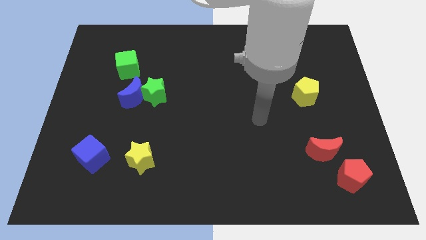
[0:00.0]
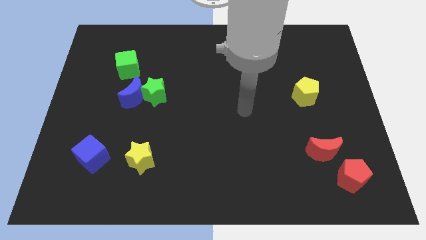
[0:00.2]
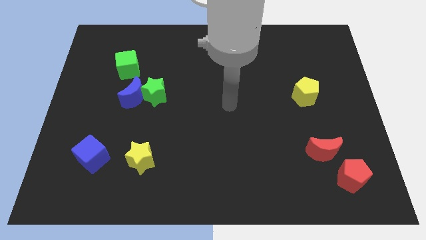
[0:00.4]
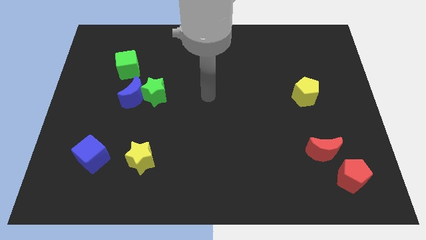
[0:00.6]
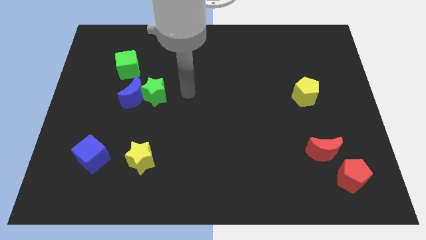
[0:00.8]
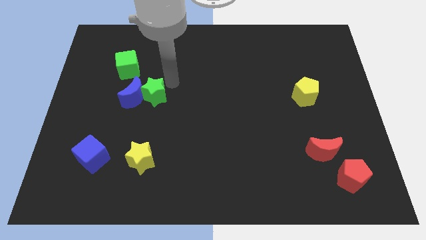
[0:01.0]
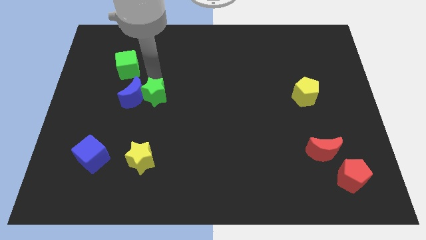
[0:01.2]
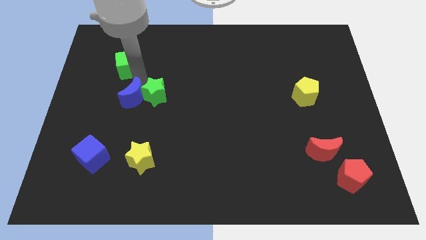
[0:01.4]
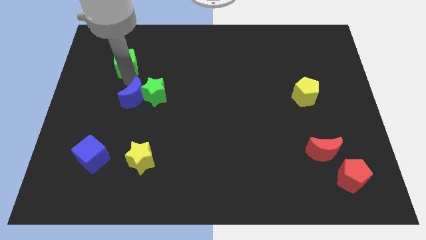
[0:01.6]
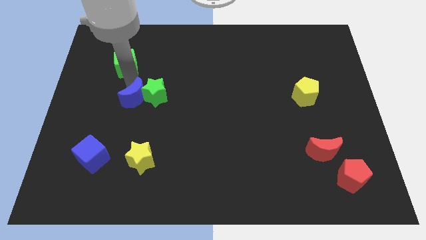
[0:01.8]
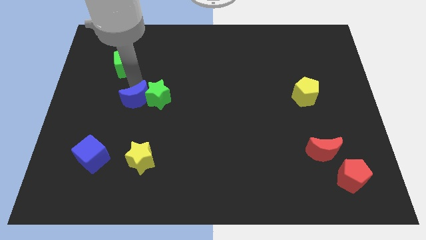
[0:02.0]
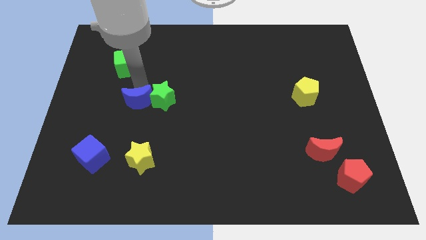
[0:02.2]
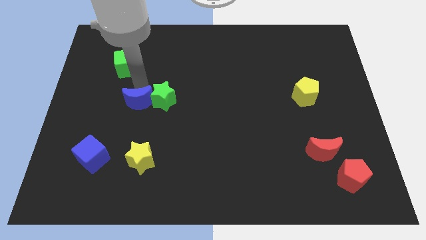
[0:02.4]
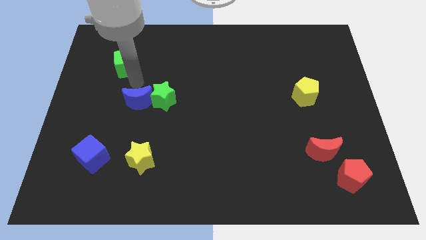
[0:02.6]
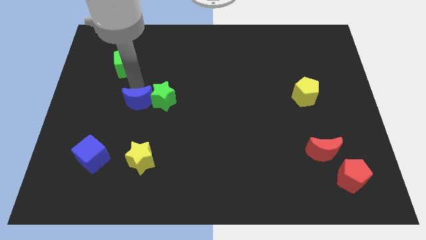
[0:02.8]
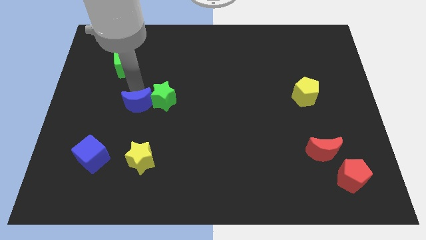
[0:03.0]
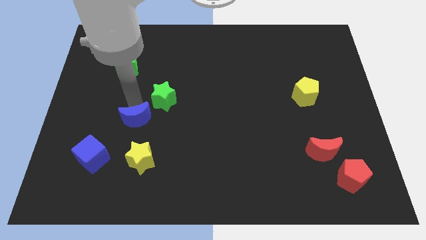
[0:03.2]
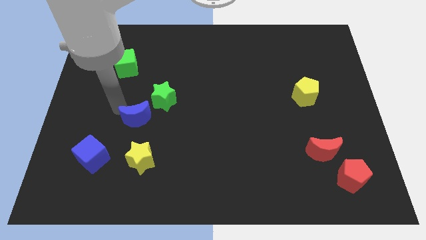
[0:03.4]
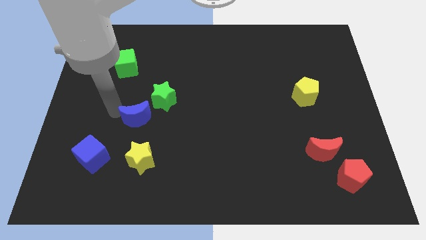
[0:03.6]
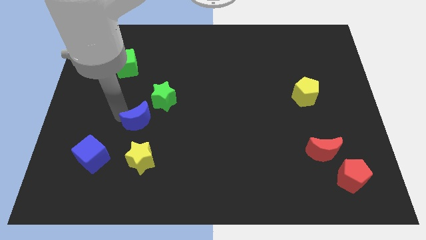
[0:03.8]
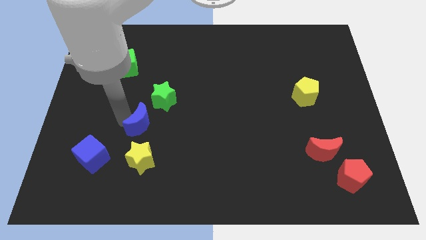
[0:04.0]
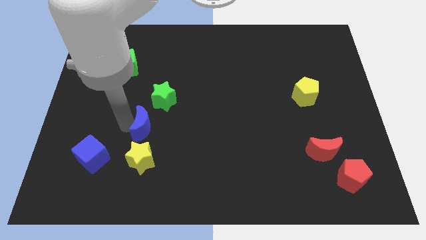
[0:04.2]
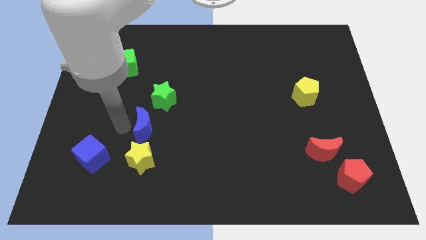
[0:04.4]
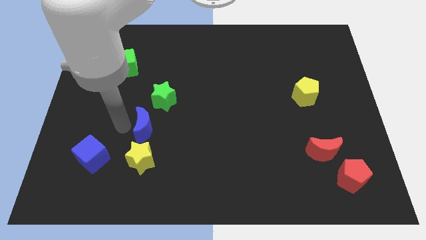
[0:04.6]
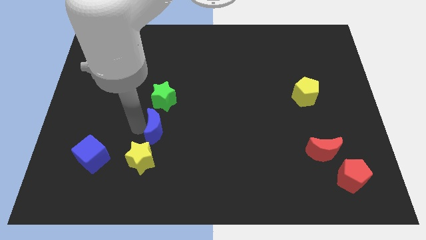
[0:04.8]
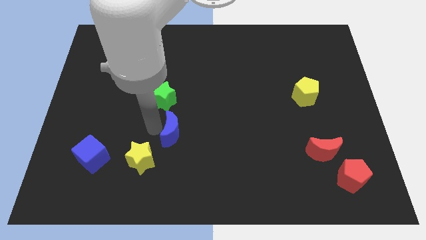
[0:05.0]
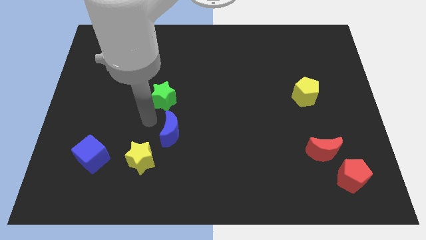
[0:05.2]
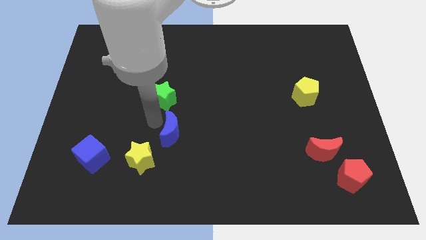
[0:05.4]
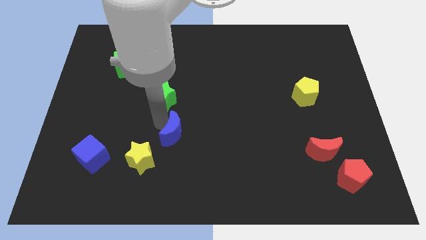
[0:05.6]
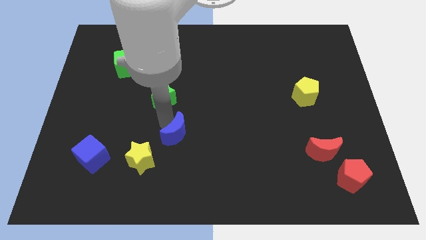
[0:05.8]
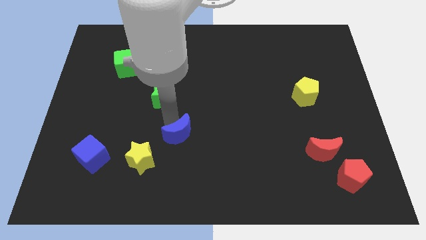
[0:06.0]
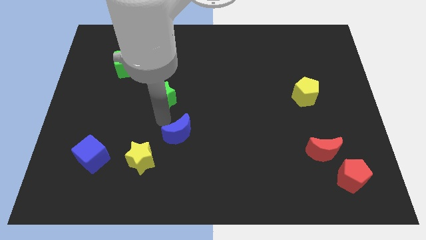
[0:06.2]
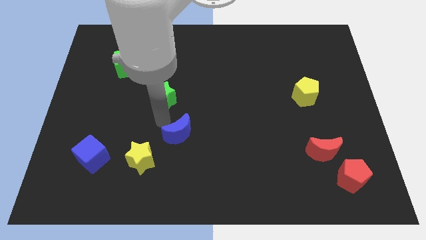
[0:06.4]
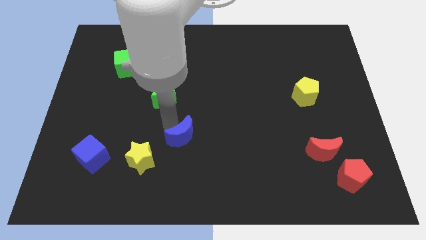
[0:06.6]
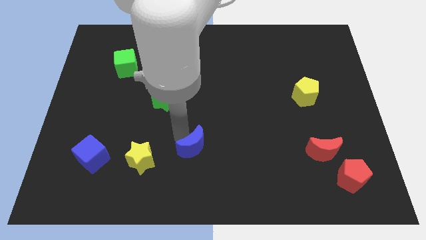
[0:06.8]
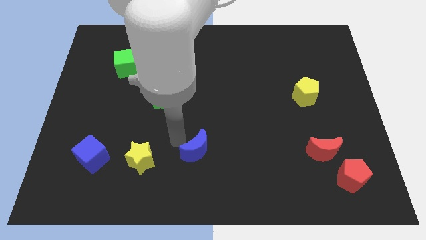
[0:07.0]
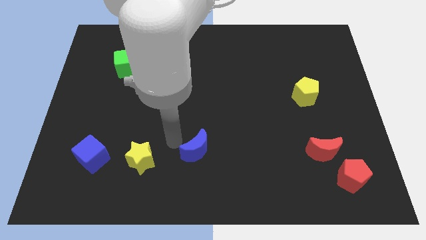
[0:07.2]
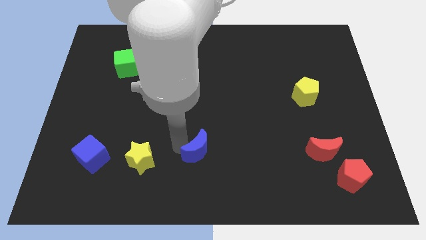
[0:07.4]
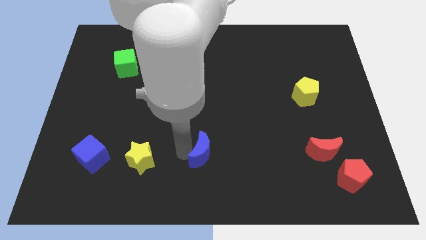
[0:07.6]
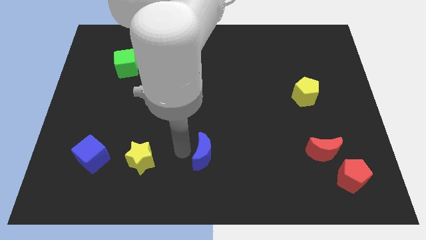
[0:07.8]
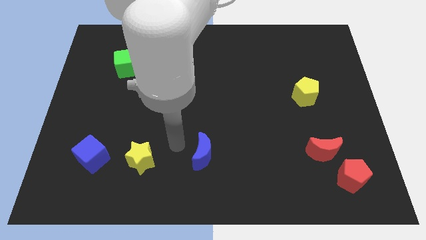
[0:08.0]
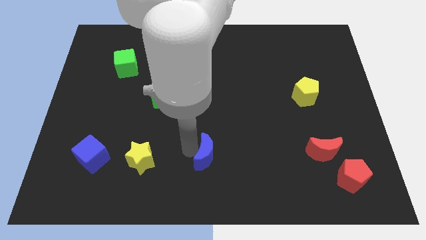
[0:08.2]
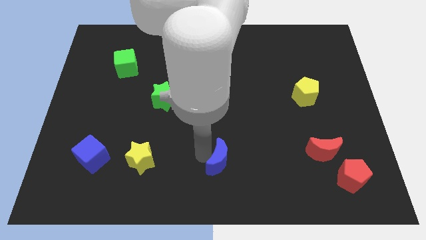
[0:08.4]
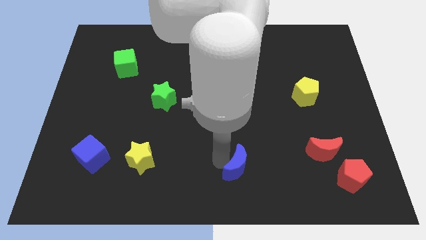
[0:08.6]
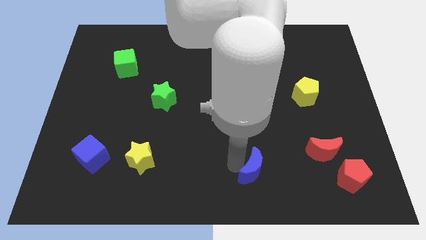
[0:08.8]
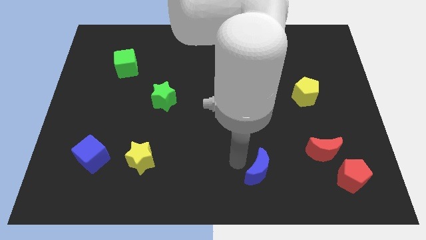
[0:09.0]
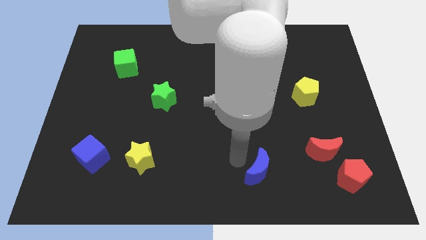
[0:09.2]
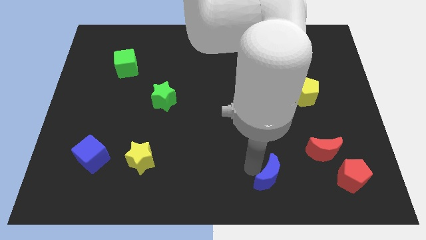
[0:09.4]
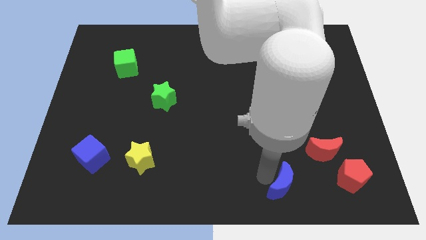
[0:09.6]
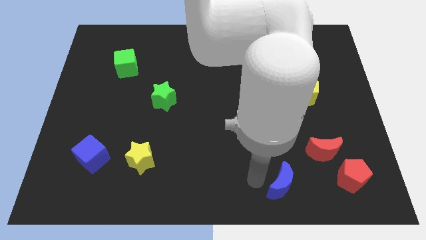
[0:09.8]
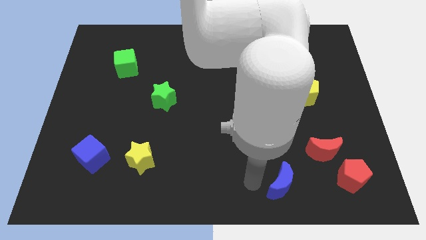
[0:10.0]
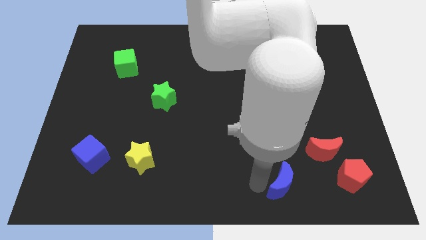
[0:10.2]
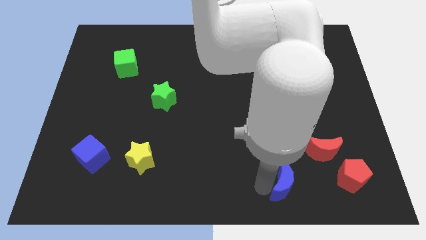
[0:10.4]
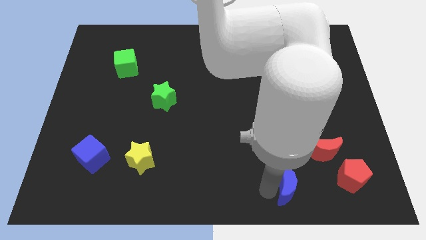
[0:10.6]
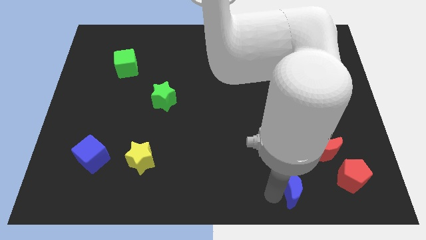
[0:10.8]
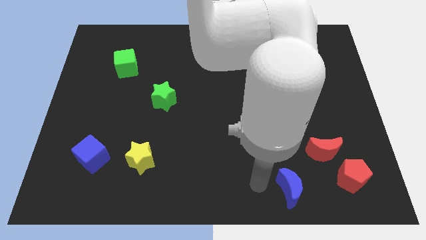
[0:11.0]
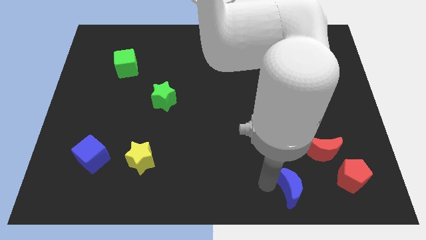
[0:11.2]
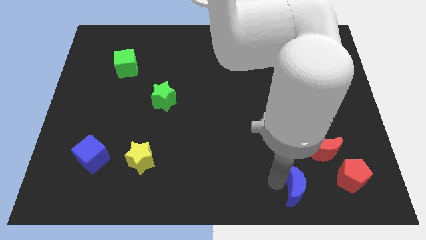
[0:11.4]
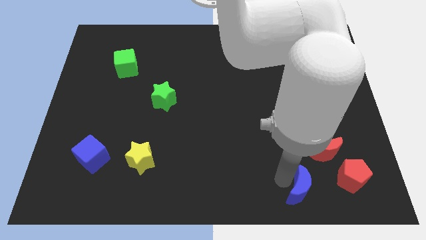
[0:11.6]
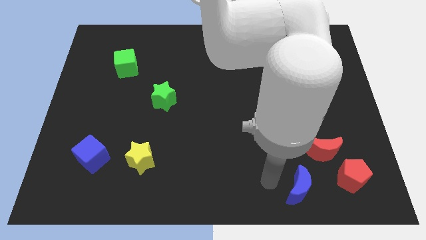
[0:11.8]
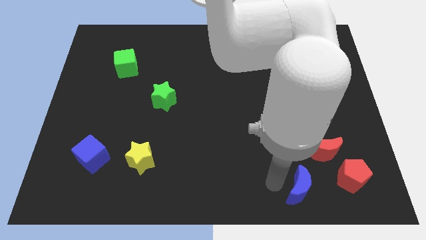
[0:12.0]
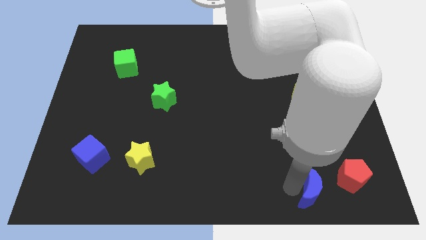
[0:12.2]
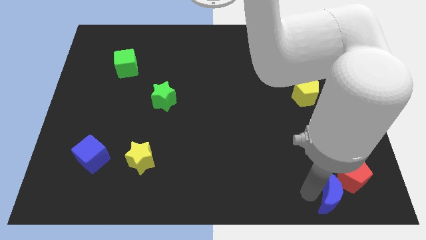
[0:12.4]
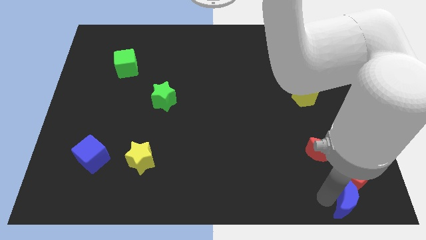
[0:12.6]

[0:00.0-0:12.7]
push the blue moon to the bottom right
